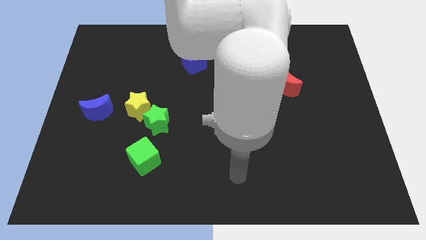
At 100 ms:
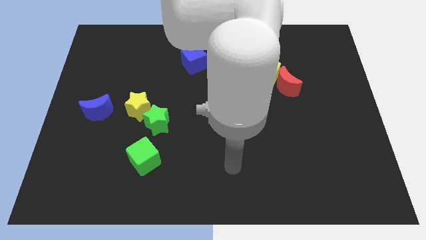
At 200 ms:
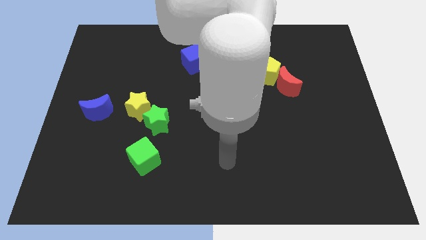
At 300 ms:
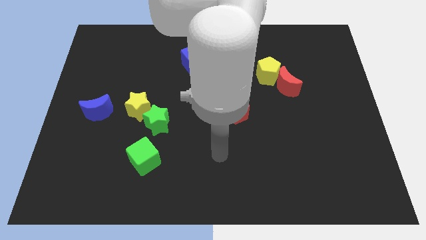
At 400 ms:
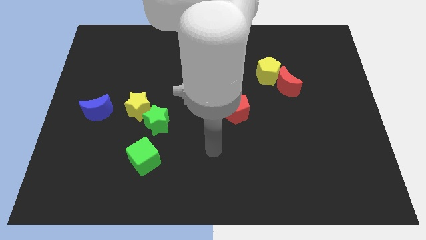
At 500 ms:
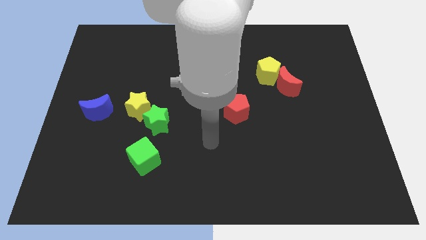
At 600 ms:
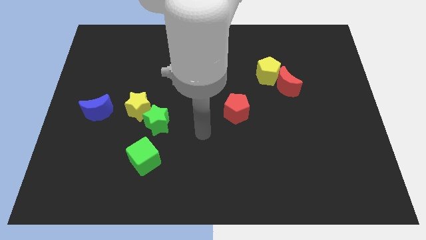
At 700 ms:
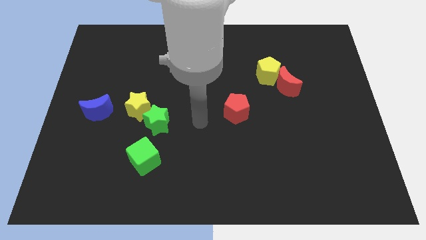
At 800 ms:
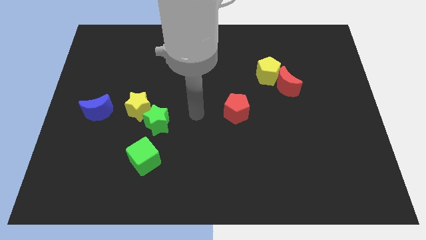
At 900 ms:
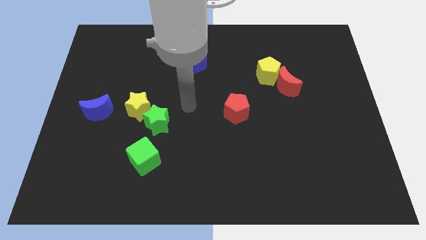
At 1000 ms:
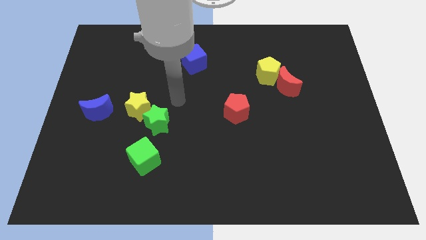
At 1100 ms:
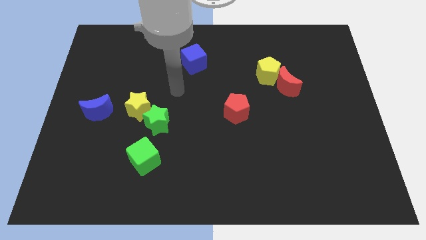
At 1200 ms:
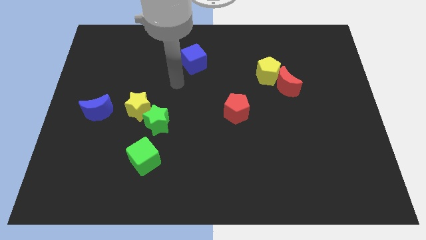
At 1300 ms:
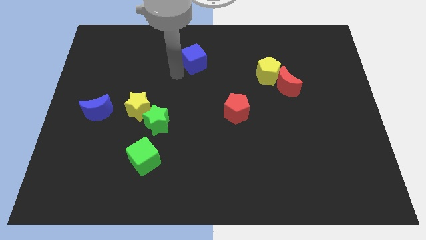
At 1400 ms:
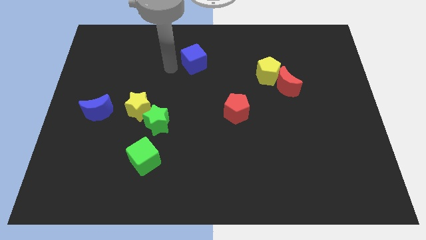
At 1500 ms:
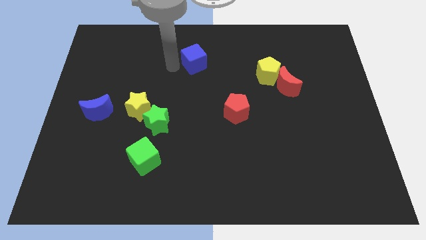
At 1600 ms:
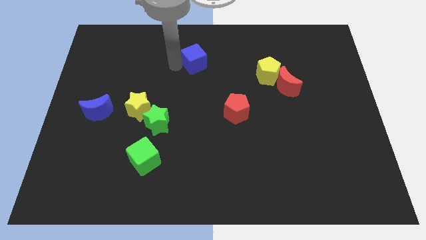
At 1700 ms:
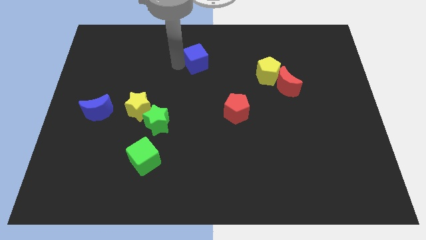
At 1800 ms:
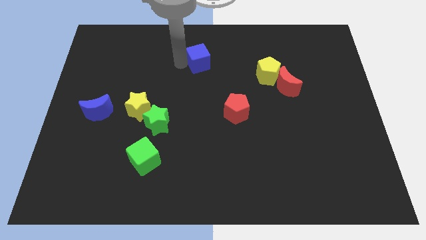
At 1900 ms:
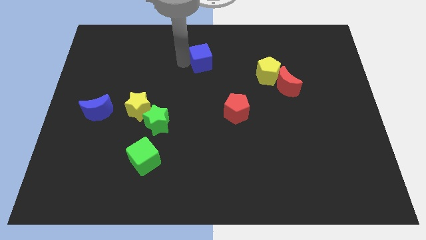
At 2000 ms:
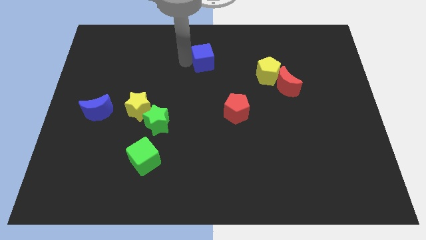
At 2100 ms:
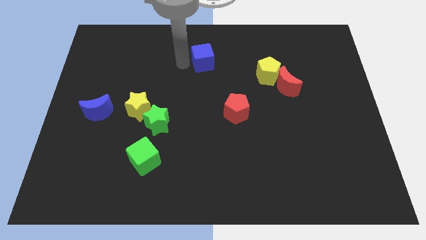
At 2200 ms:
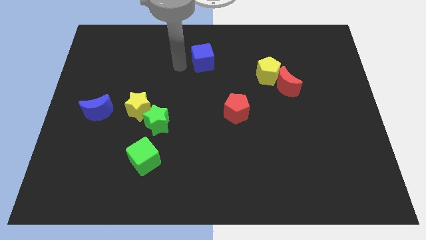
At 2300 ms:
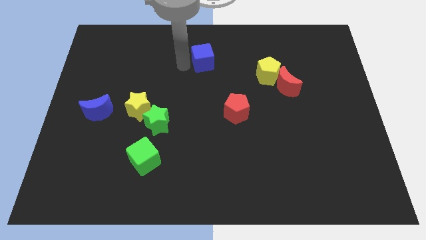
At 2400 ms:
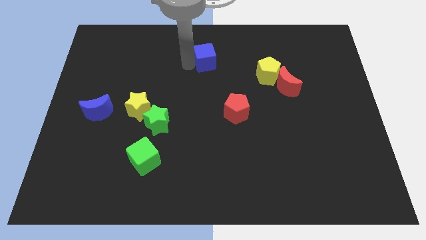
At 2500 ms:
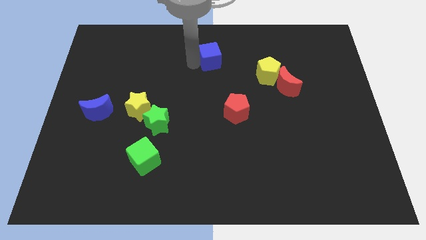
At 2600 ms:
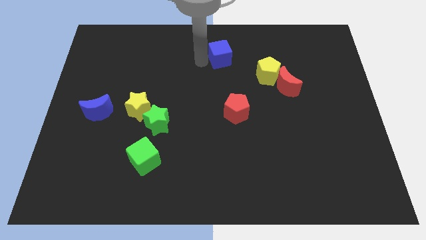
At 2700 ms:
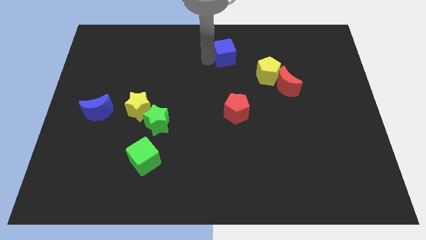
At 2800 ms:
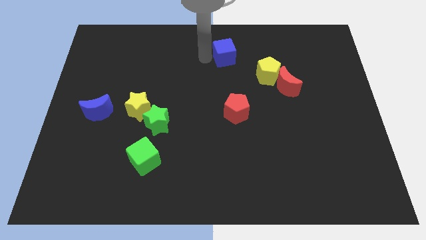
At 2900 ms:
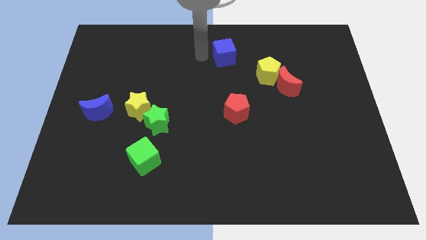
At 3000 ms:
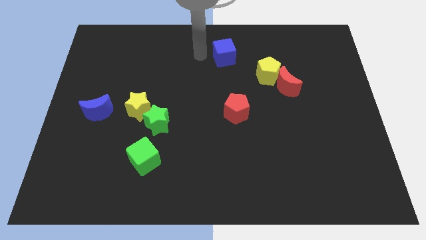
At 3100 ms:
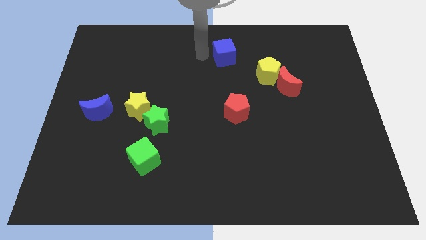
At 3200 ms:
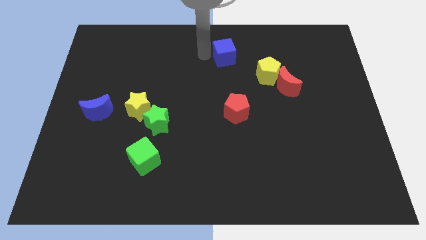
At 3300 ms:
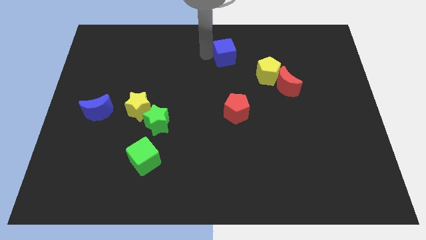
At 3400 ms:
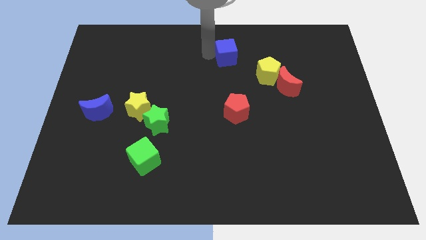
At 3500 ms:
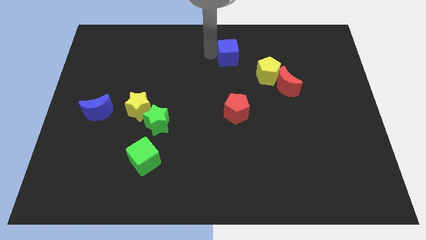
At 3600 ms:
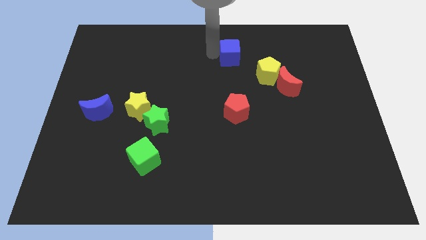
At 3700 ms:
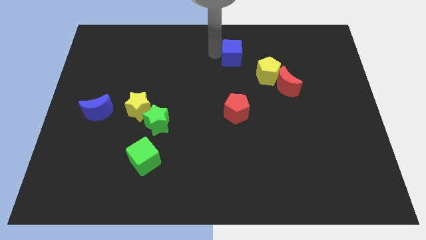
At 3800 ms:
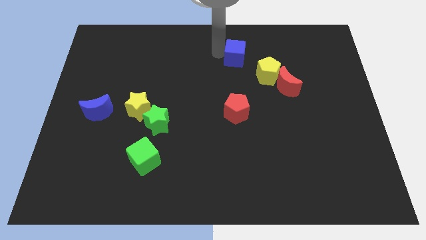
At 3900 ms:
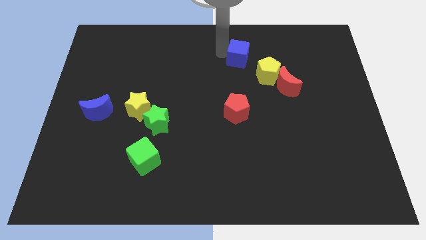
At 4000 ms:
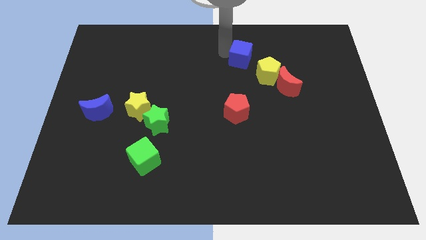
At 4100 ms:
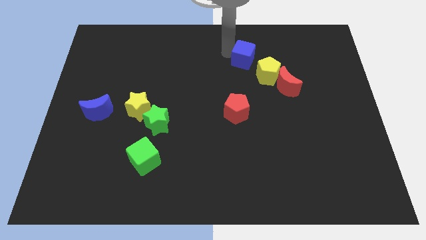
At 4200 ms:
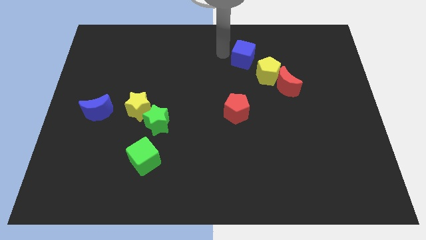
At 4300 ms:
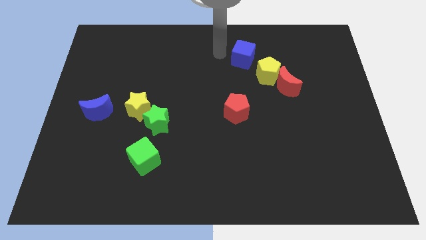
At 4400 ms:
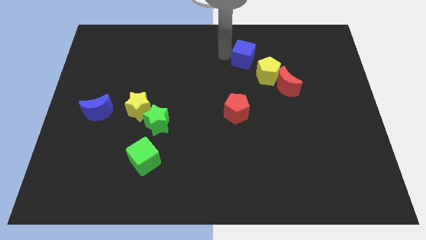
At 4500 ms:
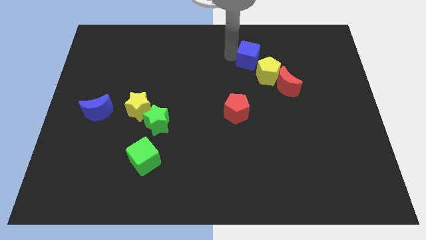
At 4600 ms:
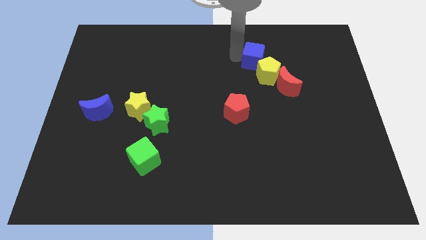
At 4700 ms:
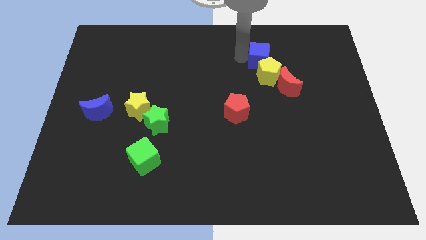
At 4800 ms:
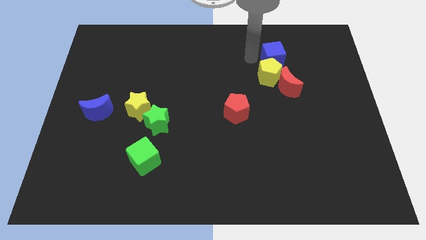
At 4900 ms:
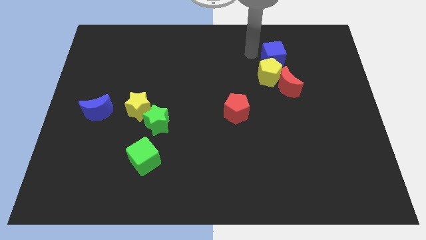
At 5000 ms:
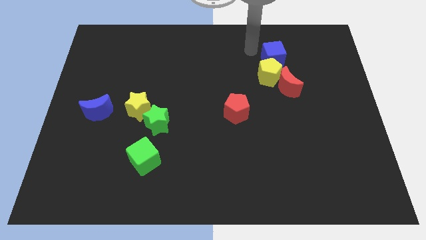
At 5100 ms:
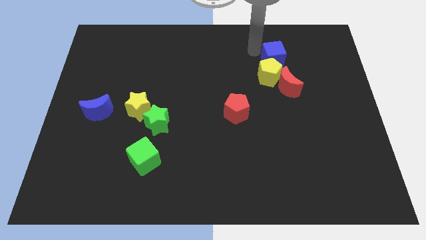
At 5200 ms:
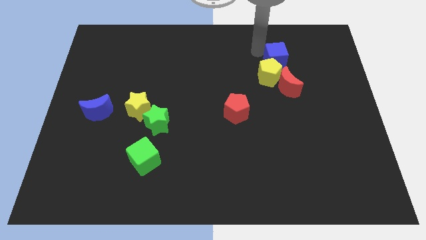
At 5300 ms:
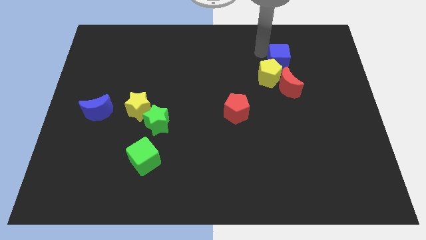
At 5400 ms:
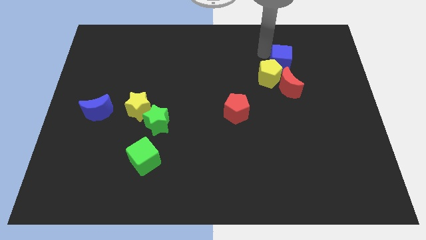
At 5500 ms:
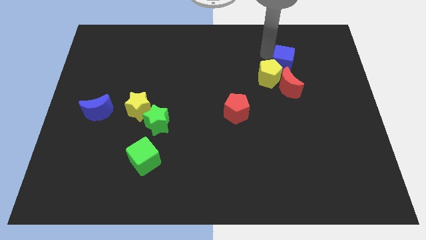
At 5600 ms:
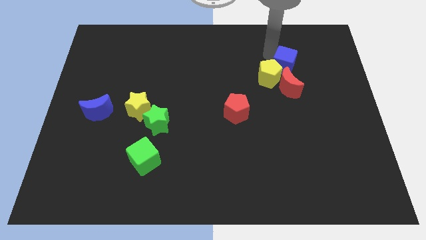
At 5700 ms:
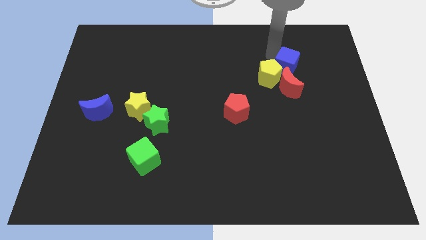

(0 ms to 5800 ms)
push the blue cube to the top right of the red moon

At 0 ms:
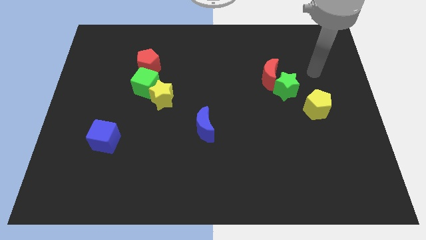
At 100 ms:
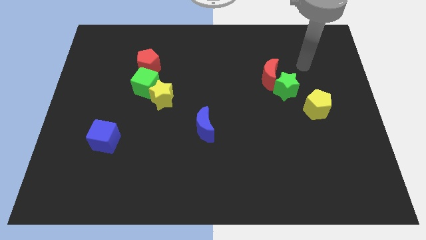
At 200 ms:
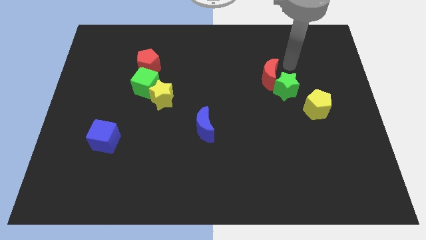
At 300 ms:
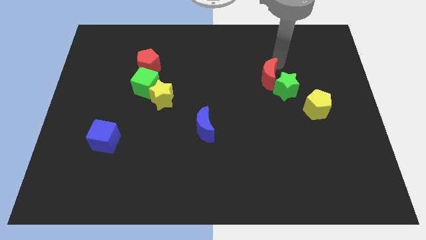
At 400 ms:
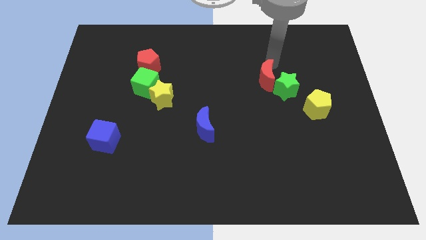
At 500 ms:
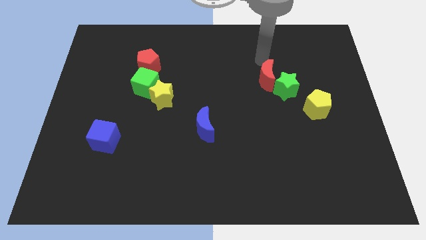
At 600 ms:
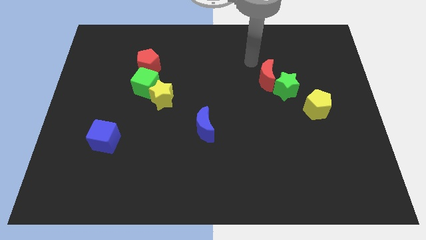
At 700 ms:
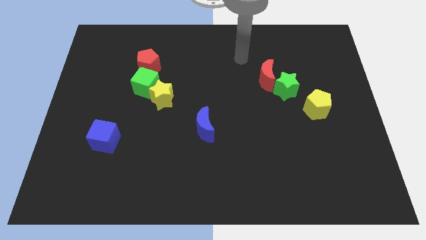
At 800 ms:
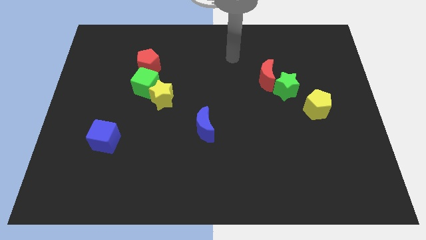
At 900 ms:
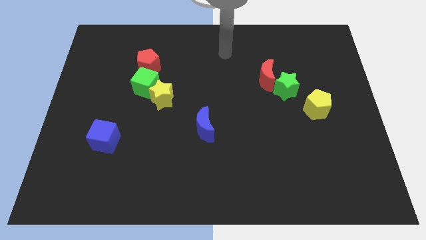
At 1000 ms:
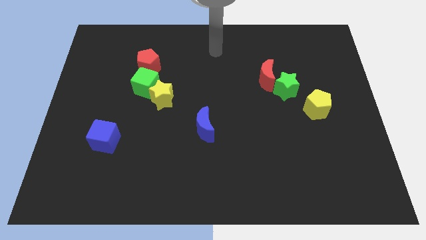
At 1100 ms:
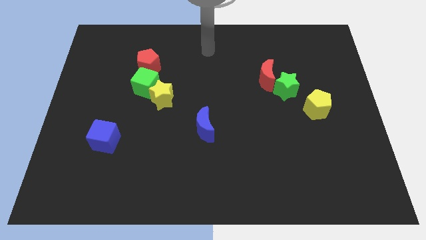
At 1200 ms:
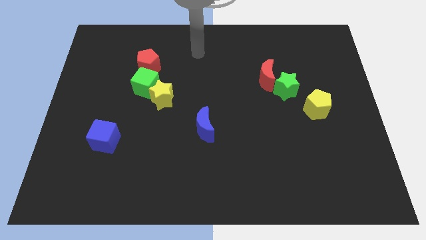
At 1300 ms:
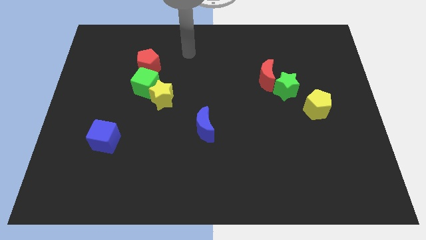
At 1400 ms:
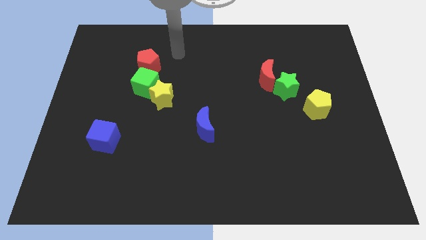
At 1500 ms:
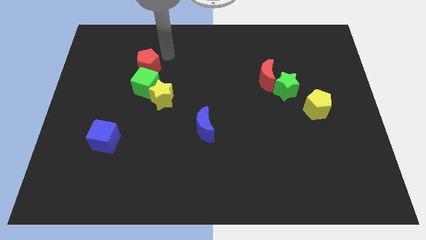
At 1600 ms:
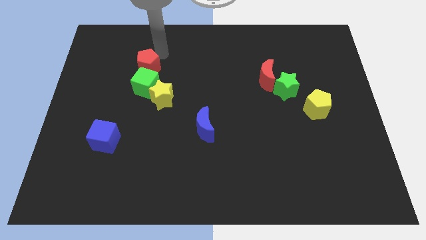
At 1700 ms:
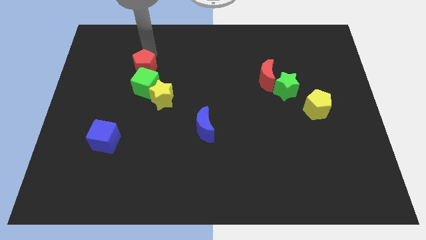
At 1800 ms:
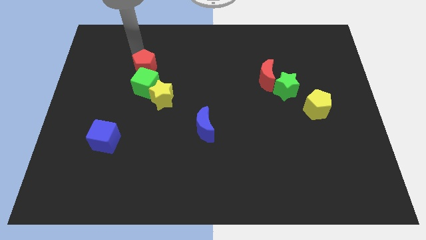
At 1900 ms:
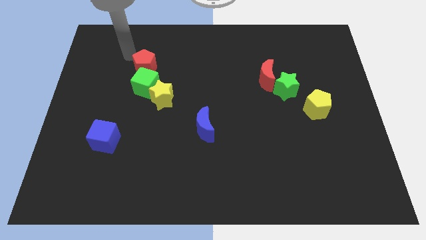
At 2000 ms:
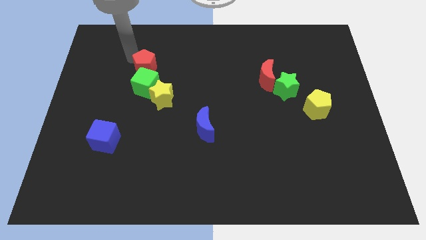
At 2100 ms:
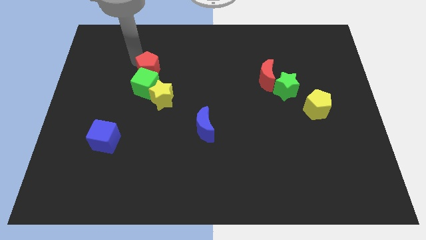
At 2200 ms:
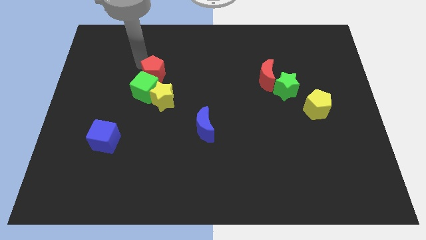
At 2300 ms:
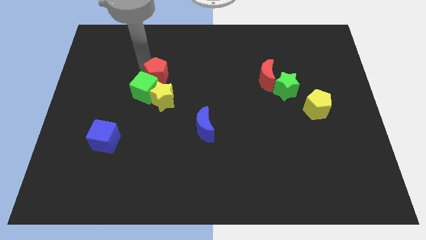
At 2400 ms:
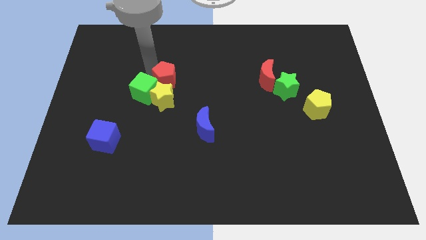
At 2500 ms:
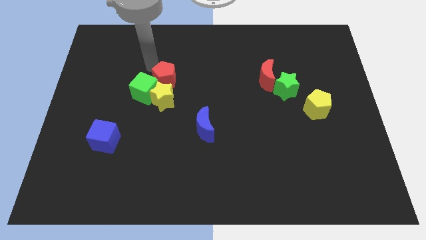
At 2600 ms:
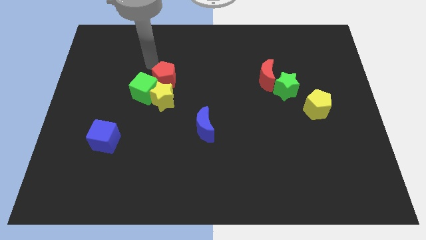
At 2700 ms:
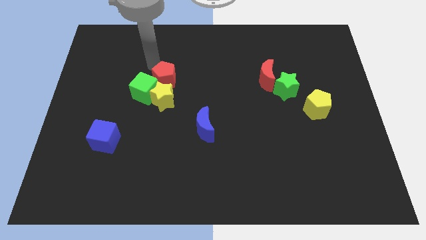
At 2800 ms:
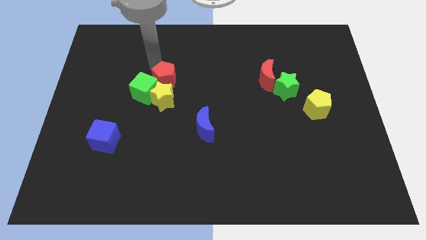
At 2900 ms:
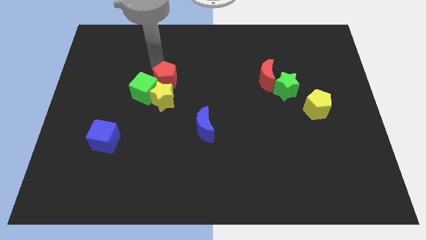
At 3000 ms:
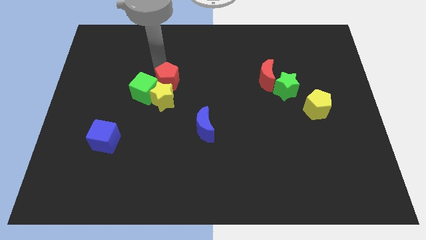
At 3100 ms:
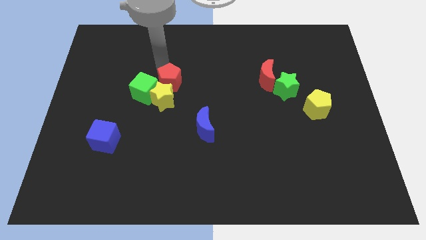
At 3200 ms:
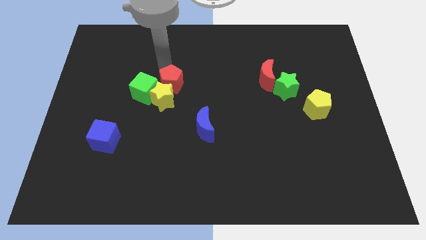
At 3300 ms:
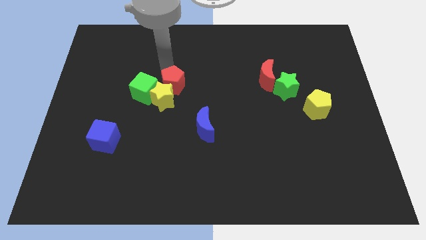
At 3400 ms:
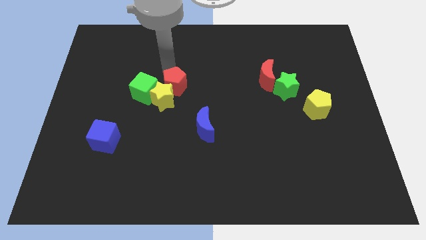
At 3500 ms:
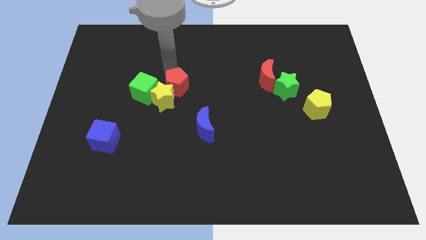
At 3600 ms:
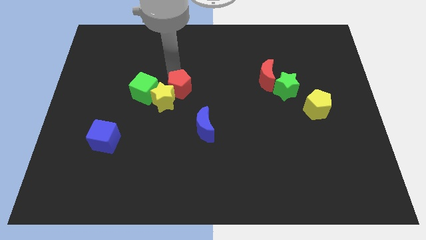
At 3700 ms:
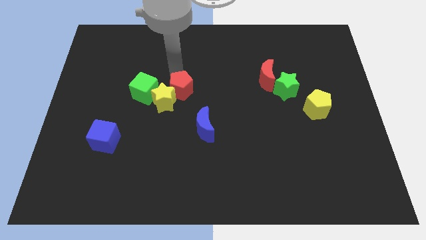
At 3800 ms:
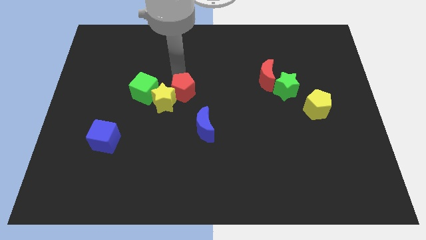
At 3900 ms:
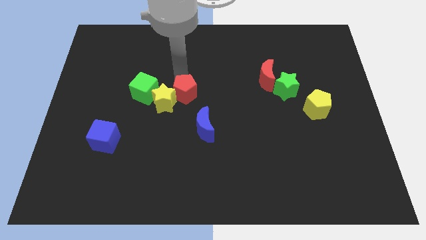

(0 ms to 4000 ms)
slide the red pentagon to the top left of the blue moon
